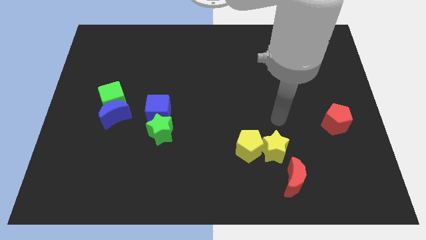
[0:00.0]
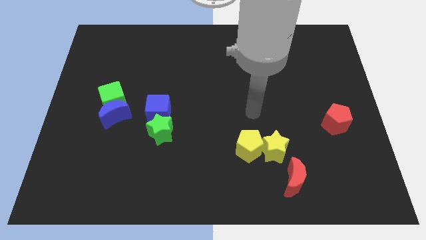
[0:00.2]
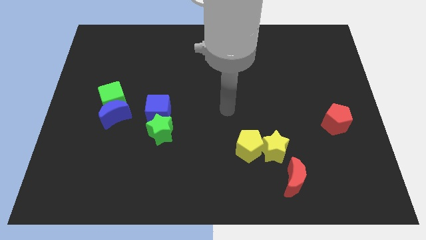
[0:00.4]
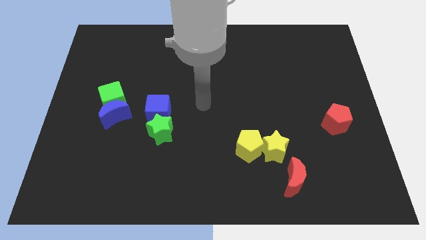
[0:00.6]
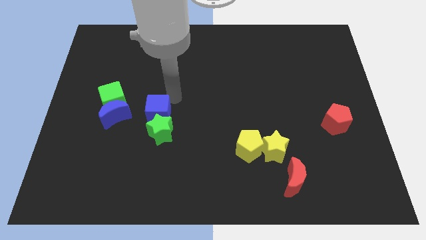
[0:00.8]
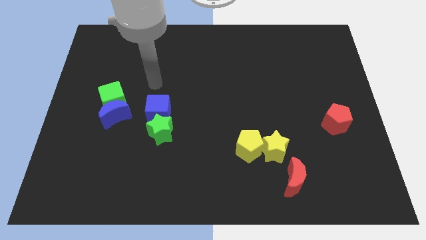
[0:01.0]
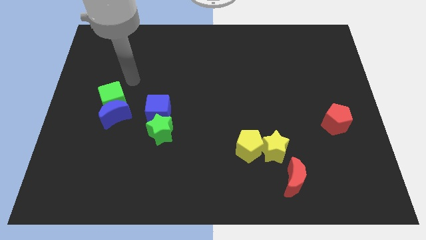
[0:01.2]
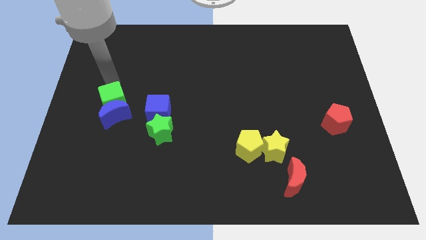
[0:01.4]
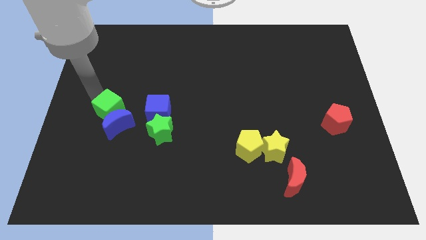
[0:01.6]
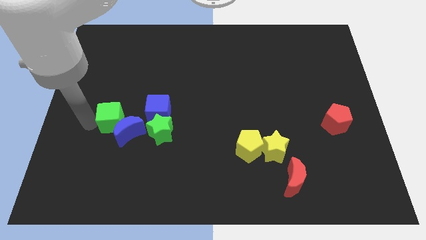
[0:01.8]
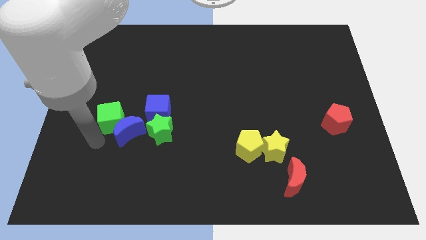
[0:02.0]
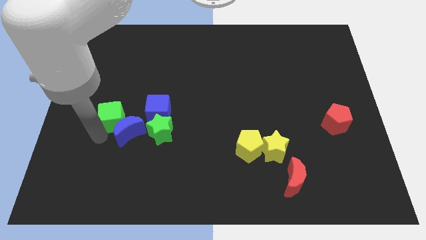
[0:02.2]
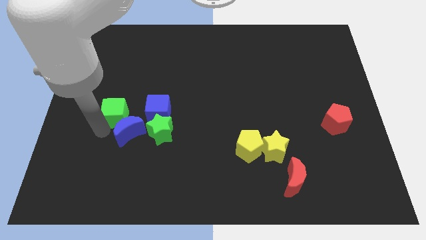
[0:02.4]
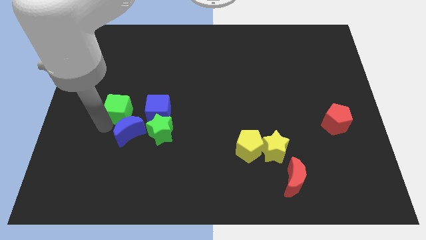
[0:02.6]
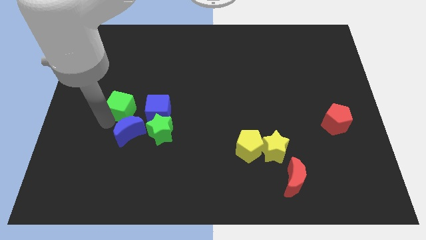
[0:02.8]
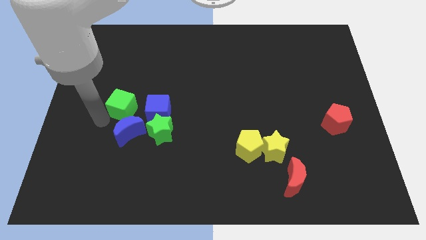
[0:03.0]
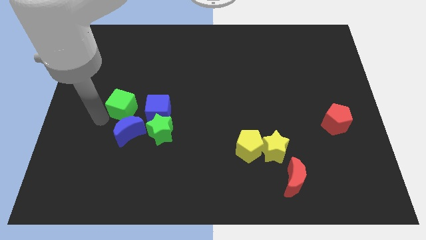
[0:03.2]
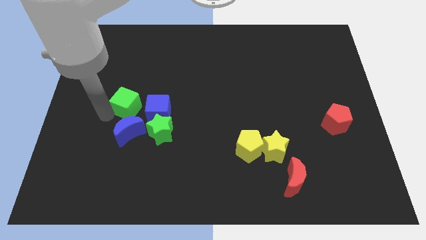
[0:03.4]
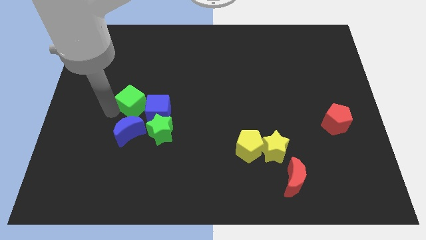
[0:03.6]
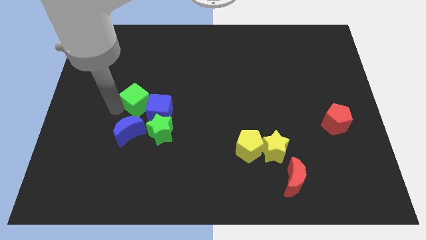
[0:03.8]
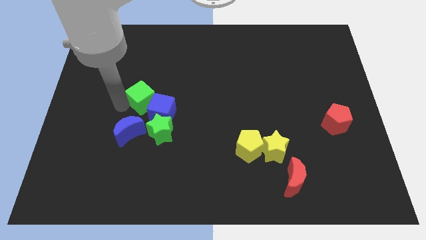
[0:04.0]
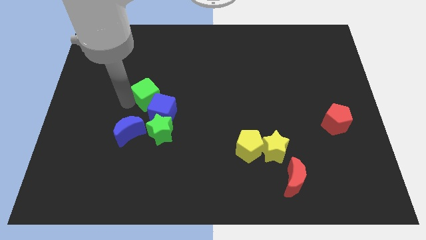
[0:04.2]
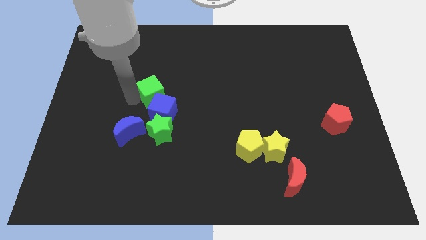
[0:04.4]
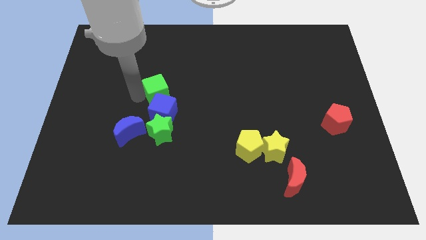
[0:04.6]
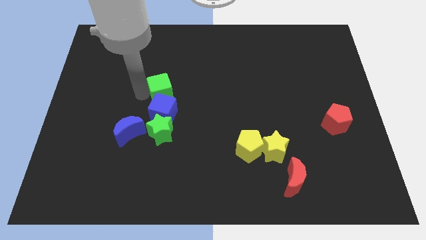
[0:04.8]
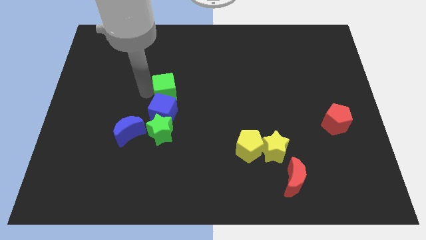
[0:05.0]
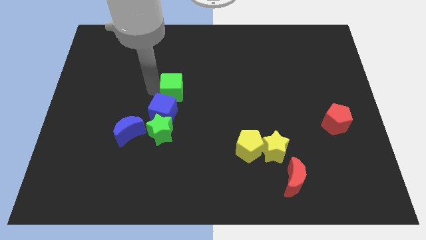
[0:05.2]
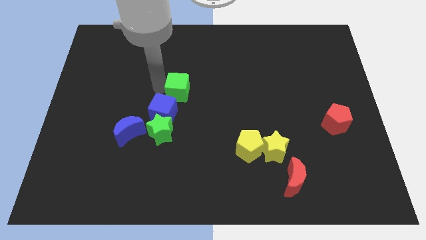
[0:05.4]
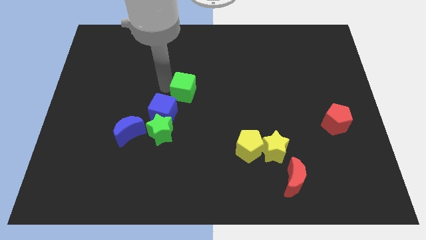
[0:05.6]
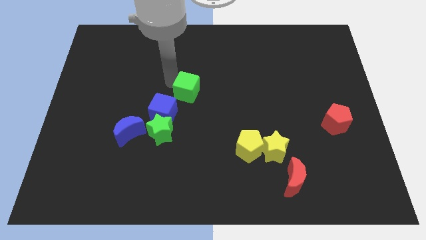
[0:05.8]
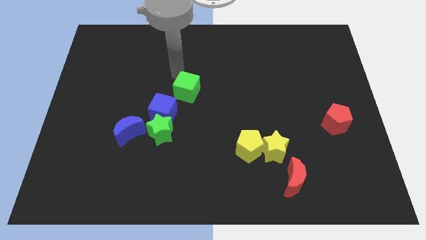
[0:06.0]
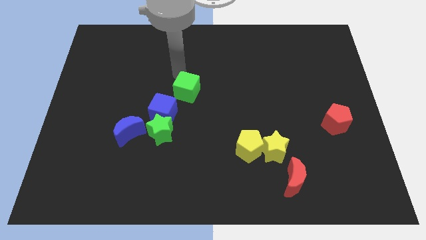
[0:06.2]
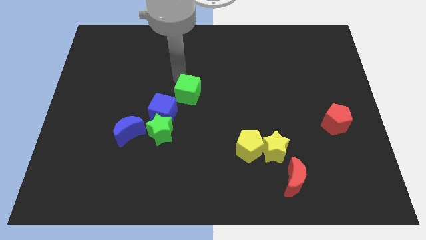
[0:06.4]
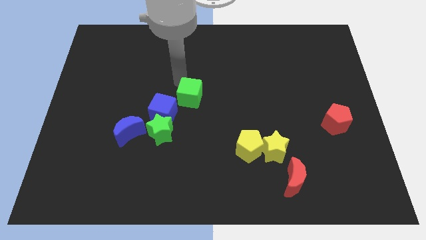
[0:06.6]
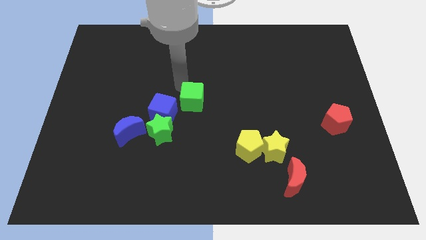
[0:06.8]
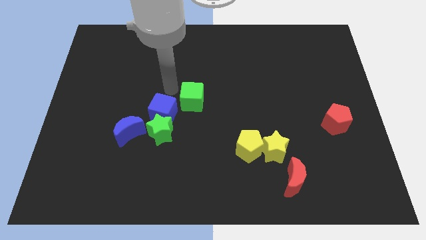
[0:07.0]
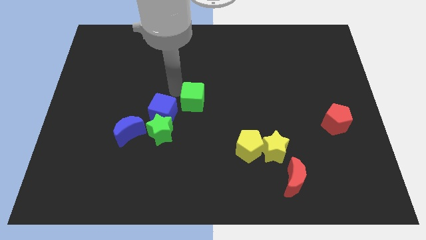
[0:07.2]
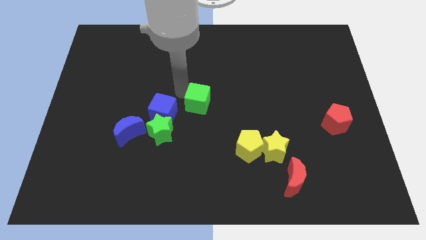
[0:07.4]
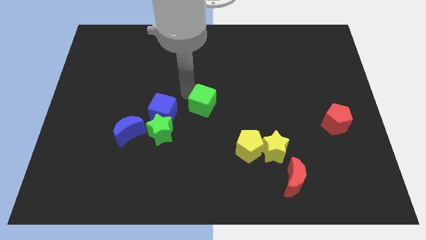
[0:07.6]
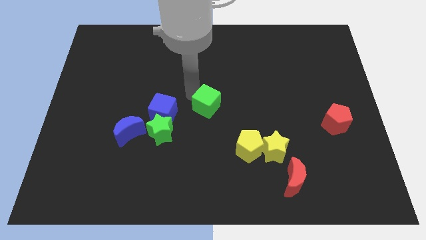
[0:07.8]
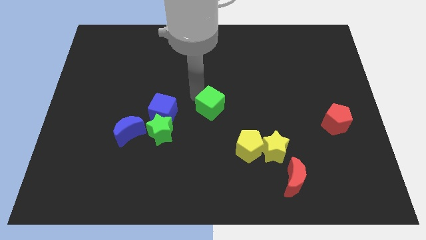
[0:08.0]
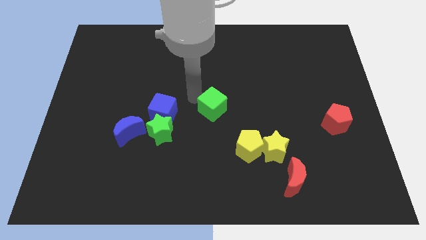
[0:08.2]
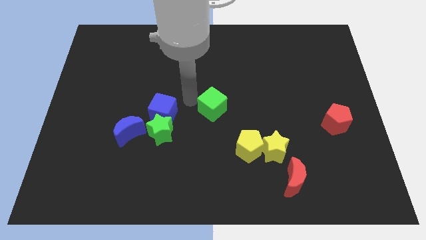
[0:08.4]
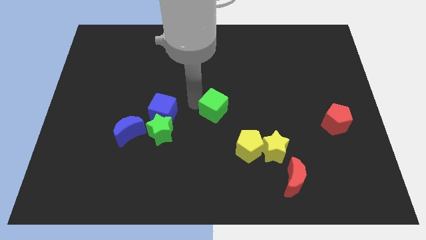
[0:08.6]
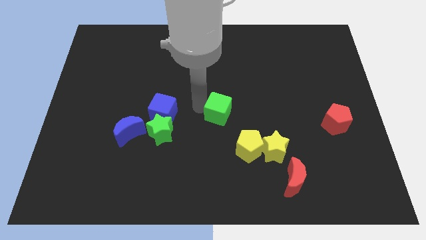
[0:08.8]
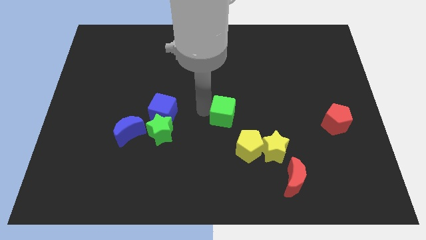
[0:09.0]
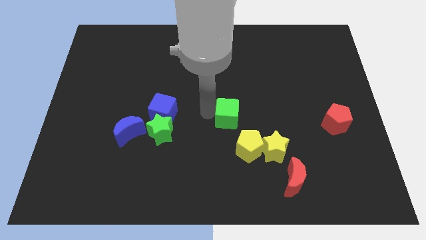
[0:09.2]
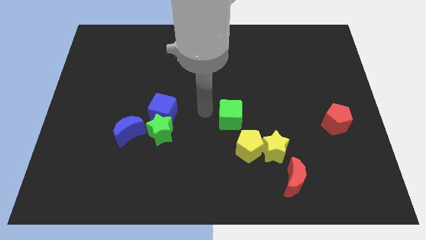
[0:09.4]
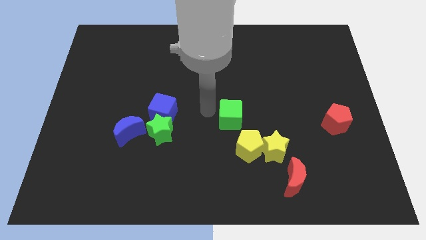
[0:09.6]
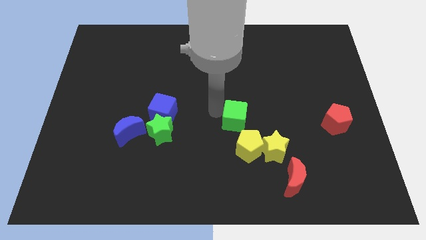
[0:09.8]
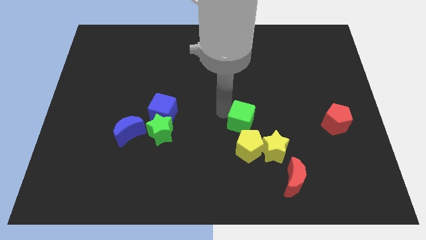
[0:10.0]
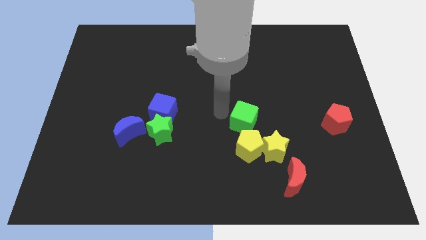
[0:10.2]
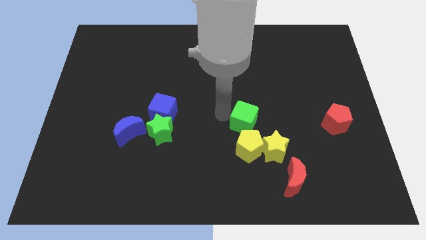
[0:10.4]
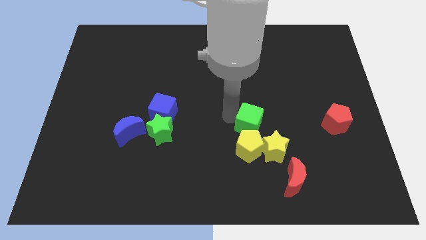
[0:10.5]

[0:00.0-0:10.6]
put the green cube to the top right of the yellow pentagon

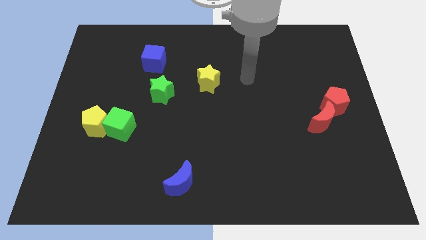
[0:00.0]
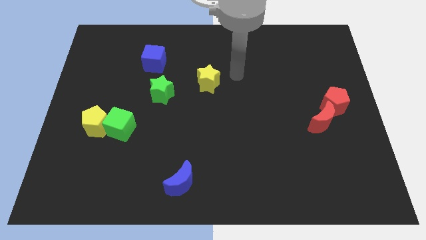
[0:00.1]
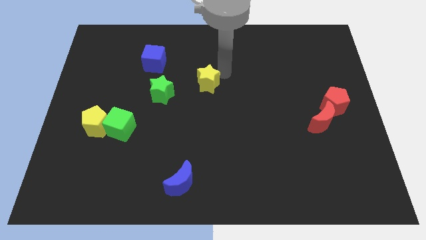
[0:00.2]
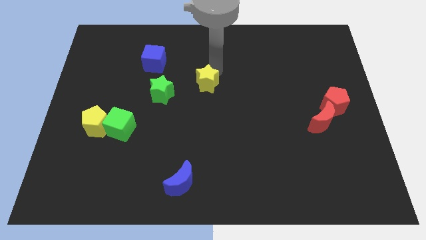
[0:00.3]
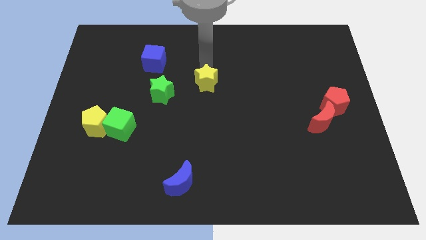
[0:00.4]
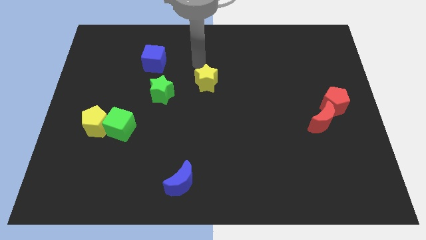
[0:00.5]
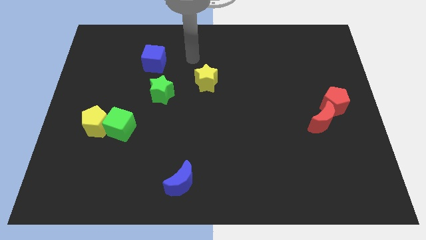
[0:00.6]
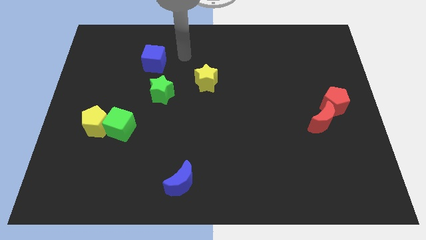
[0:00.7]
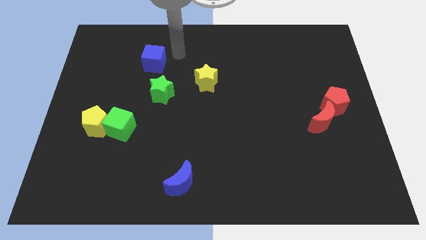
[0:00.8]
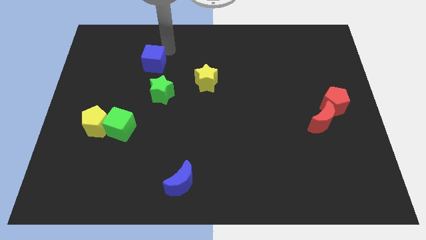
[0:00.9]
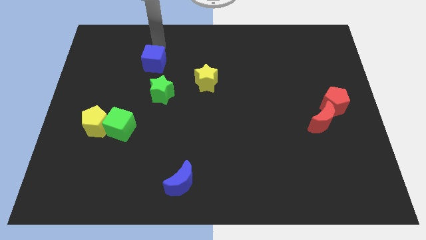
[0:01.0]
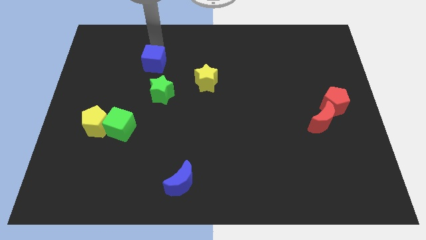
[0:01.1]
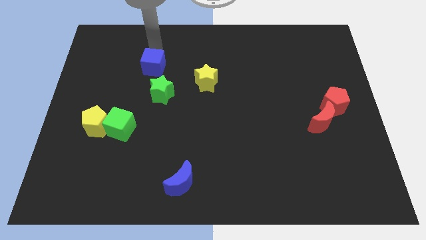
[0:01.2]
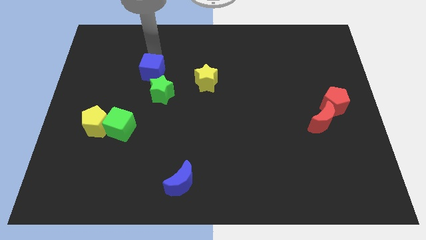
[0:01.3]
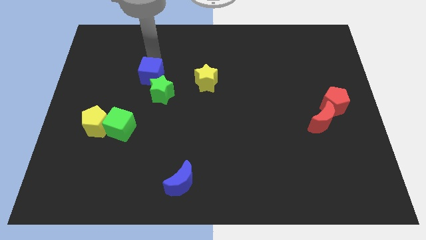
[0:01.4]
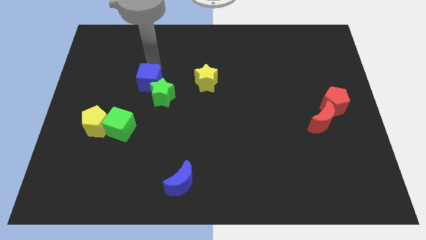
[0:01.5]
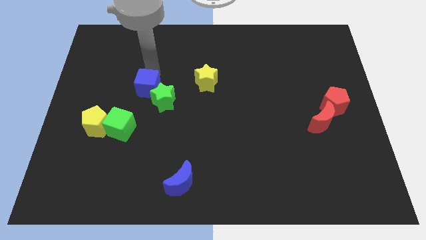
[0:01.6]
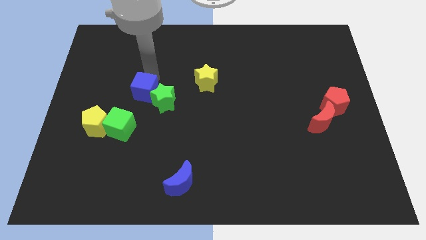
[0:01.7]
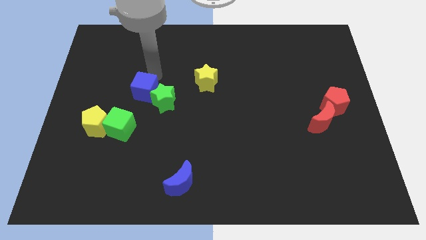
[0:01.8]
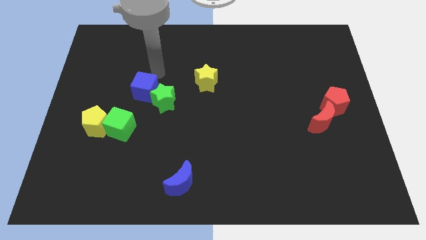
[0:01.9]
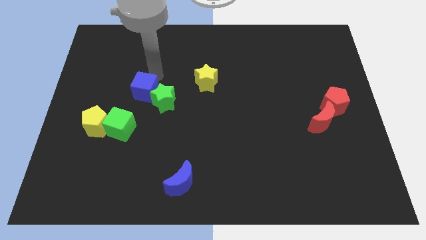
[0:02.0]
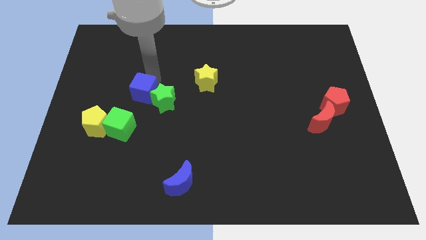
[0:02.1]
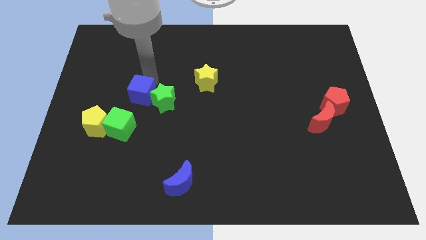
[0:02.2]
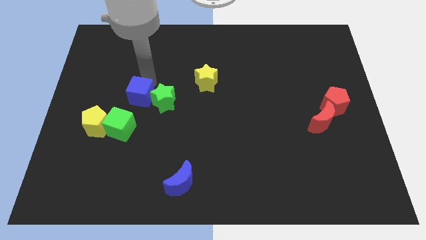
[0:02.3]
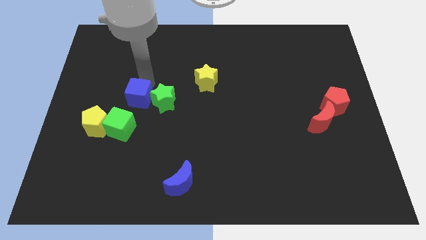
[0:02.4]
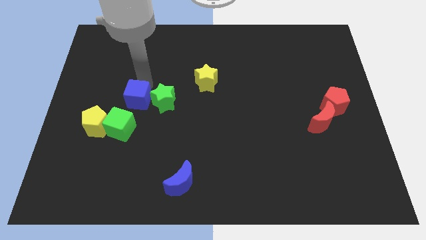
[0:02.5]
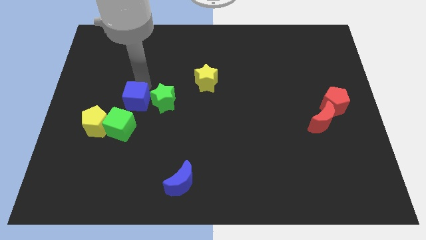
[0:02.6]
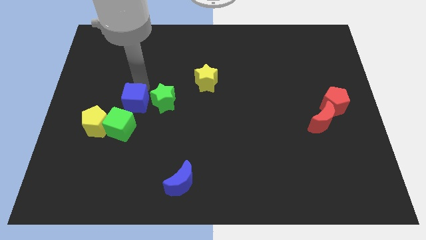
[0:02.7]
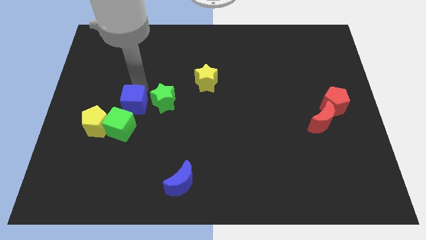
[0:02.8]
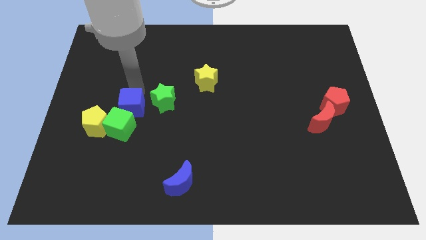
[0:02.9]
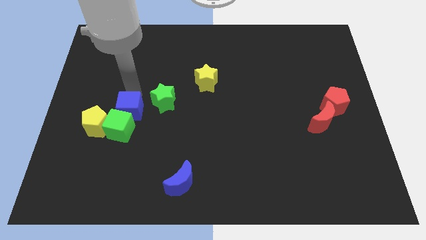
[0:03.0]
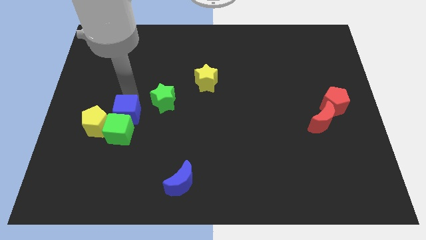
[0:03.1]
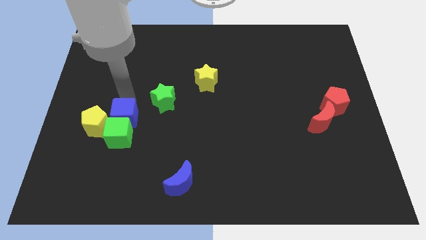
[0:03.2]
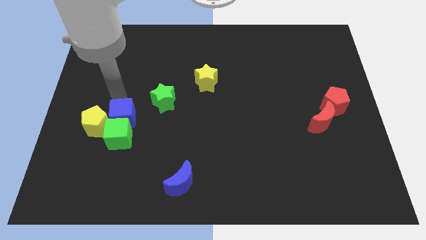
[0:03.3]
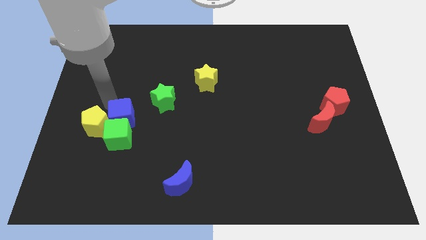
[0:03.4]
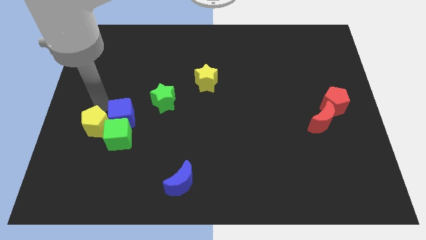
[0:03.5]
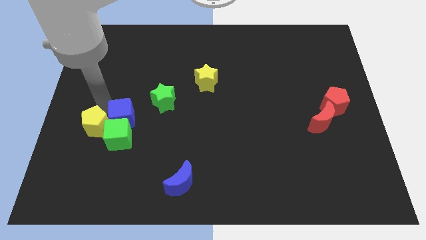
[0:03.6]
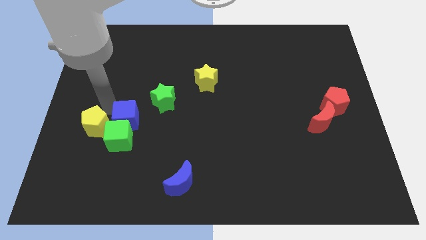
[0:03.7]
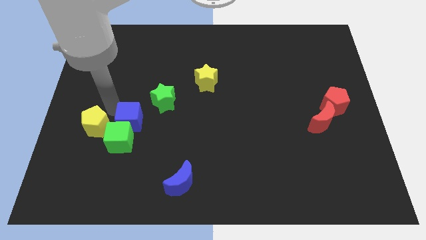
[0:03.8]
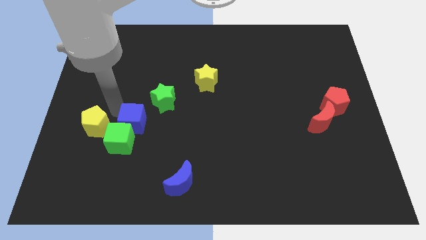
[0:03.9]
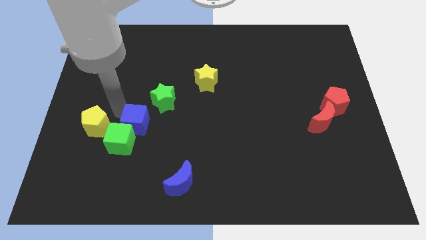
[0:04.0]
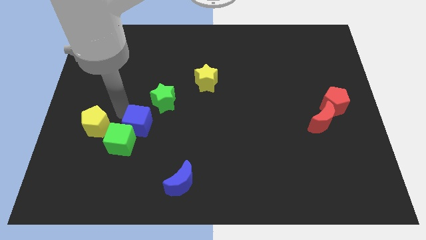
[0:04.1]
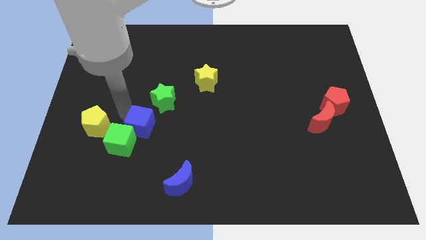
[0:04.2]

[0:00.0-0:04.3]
move the blue cube to the bottom side of the green star
